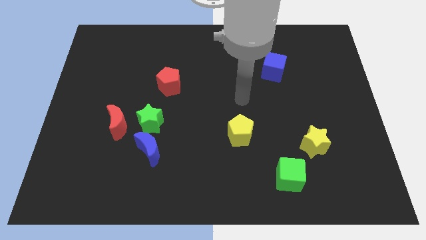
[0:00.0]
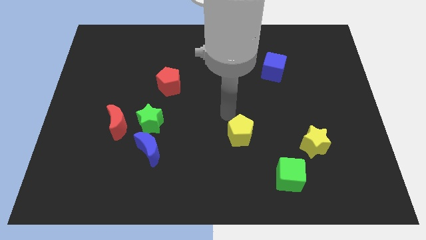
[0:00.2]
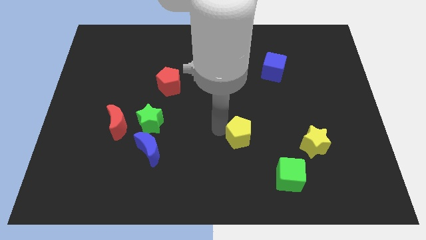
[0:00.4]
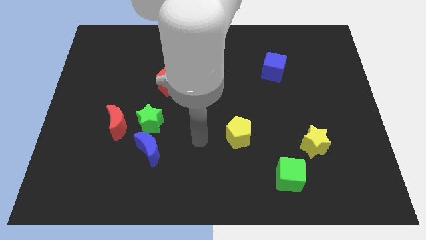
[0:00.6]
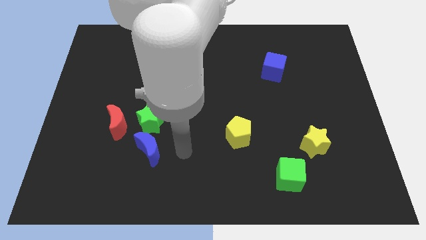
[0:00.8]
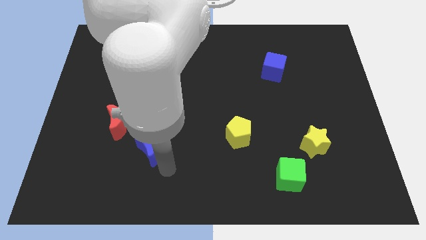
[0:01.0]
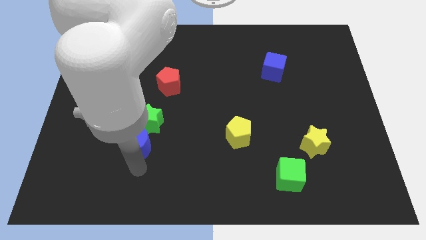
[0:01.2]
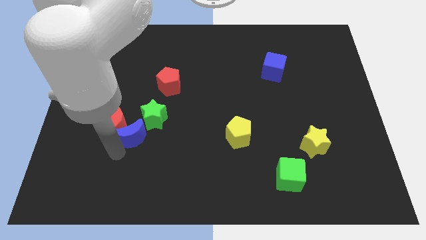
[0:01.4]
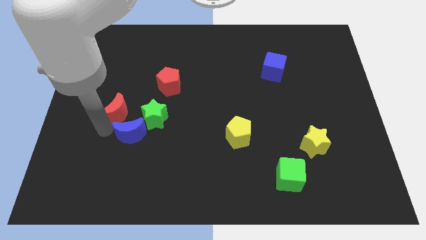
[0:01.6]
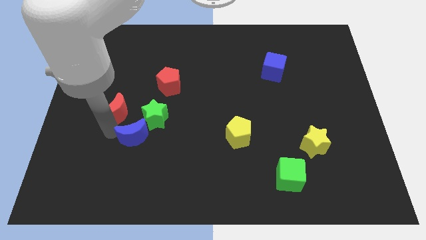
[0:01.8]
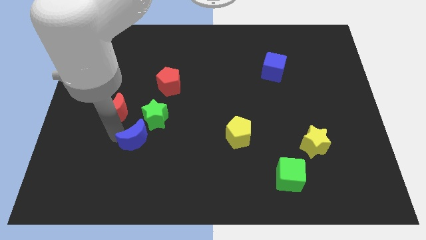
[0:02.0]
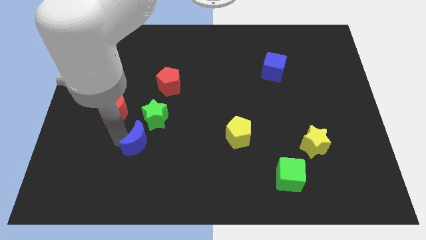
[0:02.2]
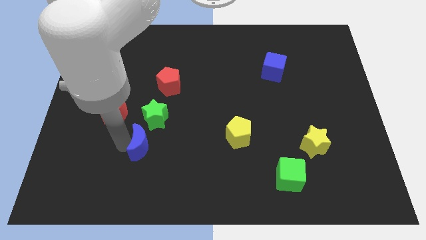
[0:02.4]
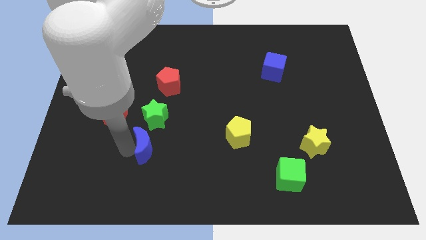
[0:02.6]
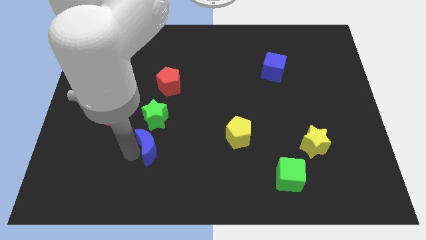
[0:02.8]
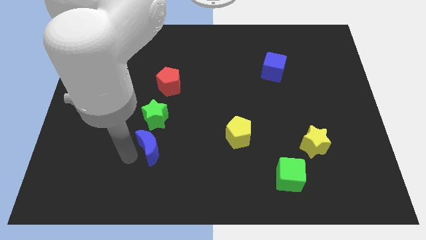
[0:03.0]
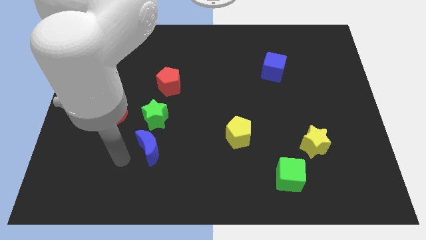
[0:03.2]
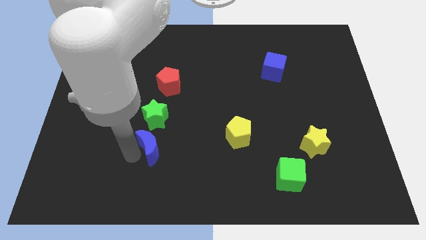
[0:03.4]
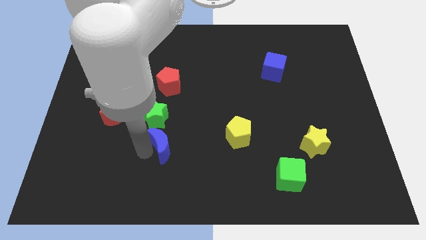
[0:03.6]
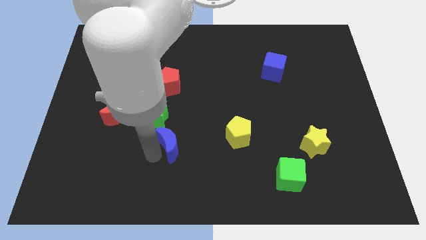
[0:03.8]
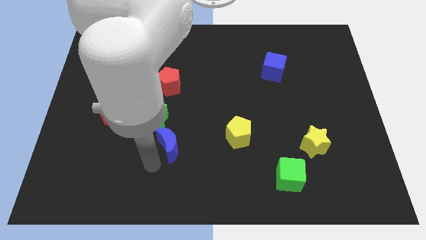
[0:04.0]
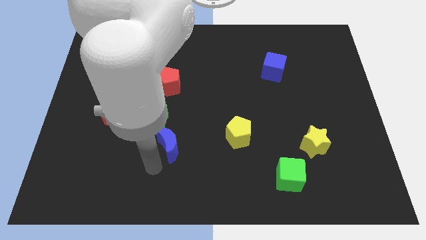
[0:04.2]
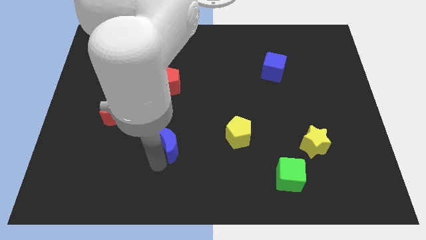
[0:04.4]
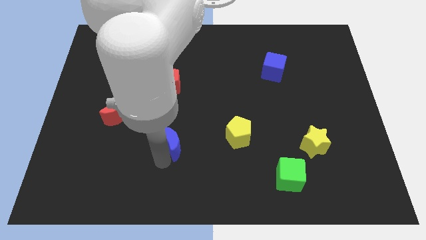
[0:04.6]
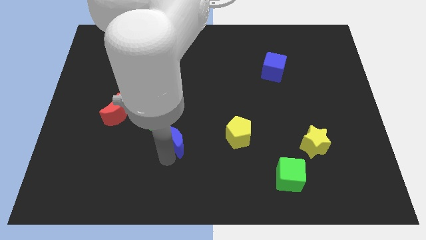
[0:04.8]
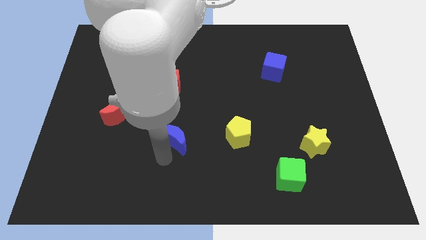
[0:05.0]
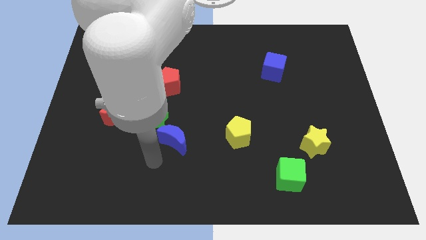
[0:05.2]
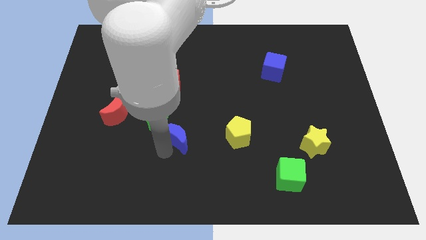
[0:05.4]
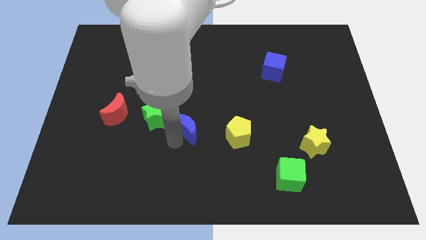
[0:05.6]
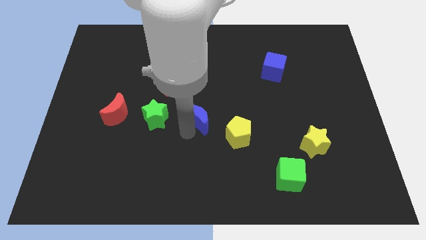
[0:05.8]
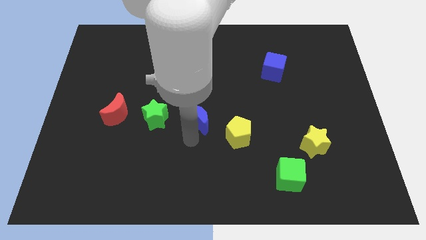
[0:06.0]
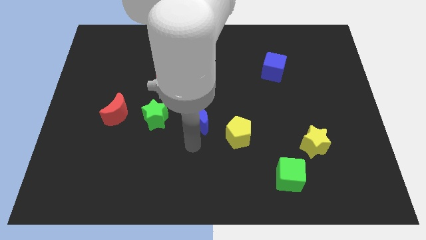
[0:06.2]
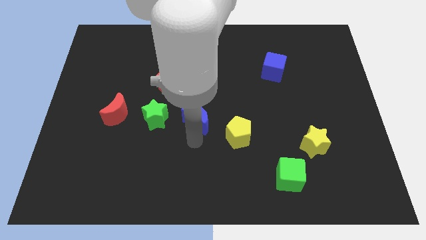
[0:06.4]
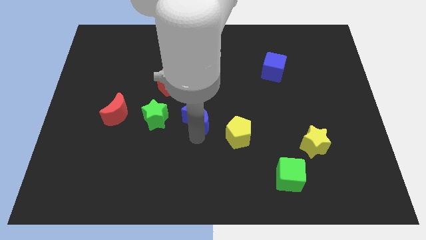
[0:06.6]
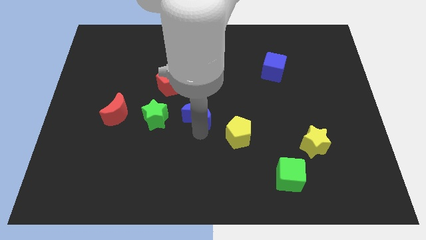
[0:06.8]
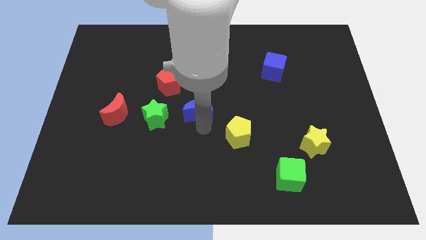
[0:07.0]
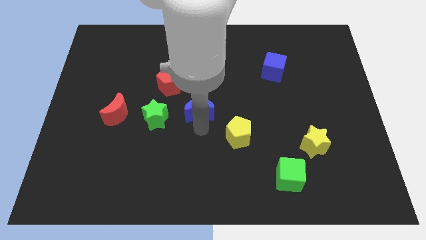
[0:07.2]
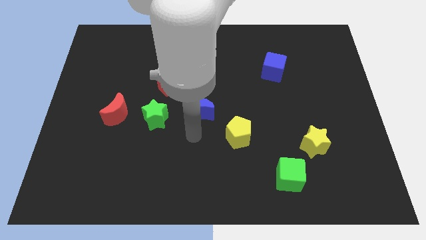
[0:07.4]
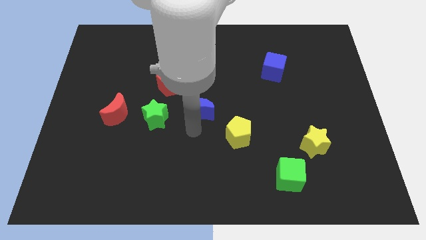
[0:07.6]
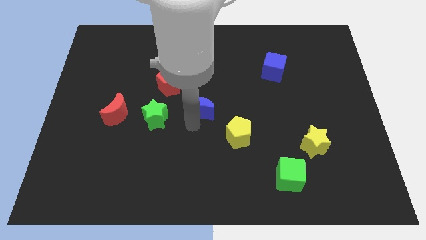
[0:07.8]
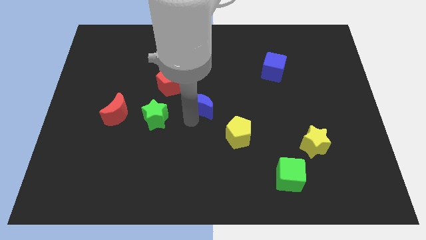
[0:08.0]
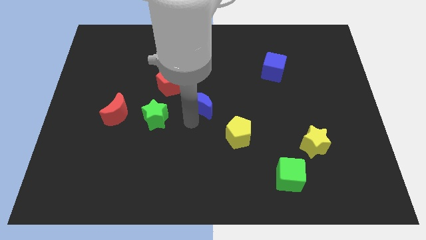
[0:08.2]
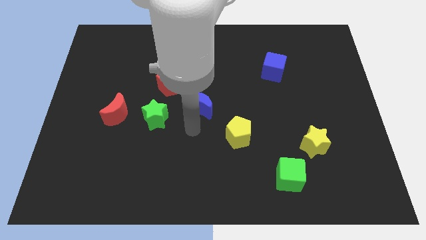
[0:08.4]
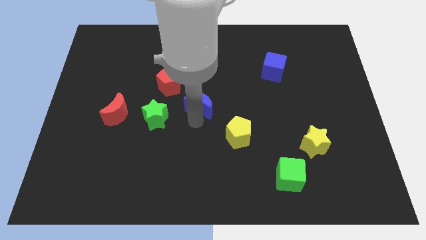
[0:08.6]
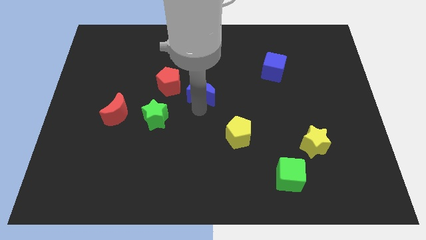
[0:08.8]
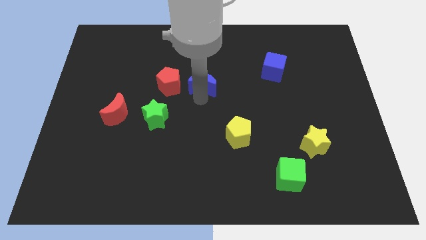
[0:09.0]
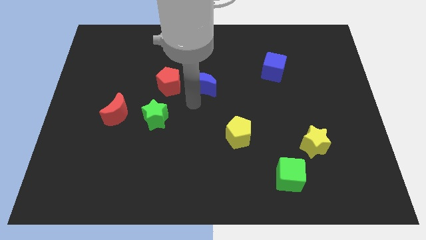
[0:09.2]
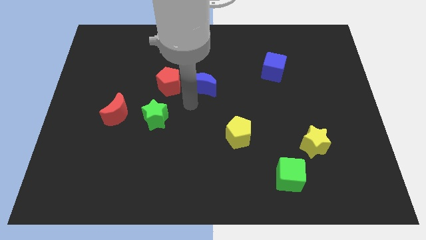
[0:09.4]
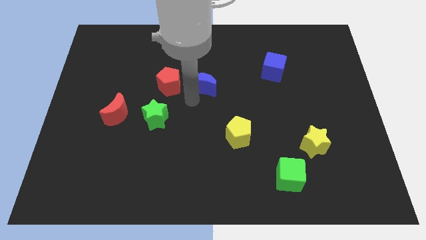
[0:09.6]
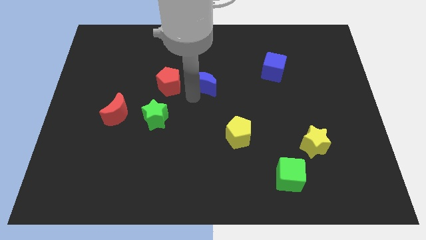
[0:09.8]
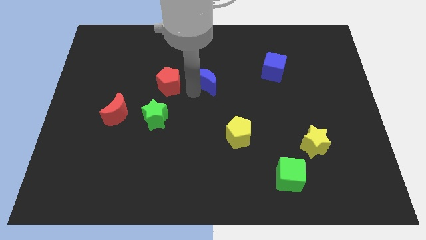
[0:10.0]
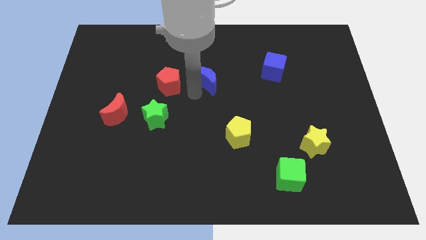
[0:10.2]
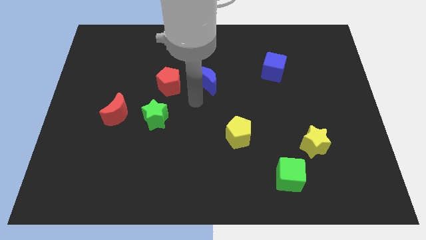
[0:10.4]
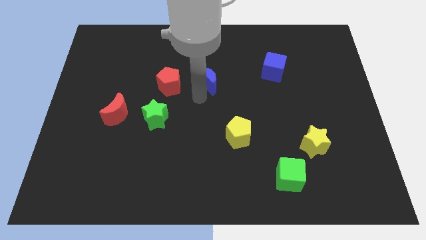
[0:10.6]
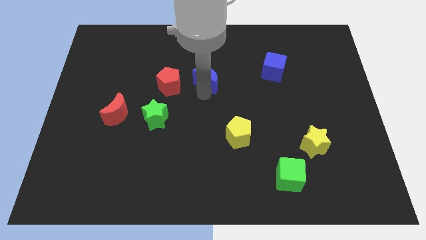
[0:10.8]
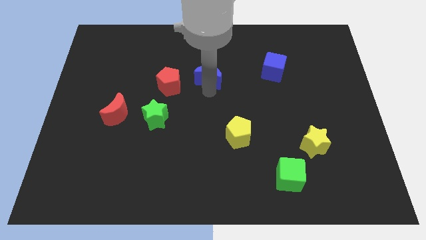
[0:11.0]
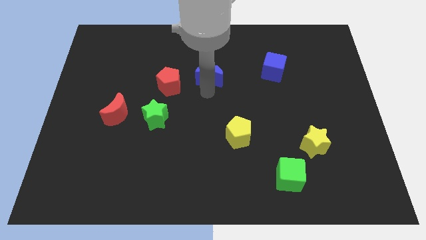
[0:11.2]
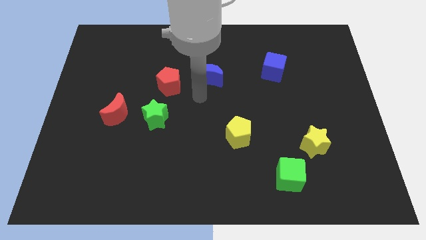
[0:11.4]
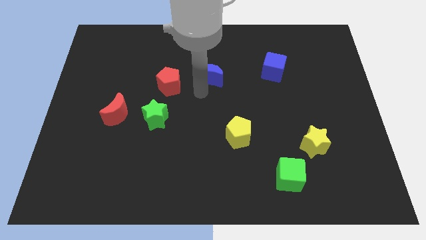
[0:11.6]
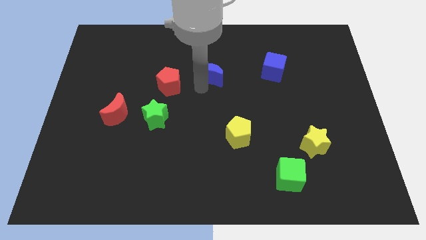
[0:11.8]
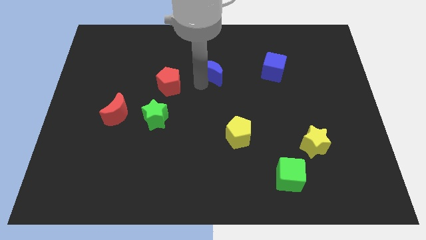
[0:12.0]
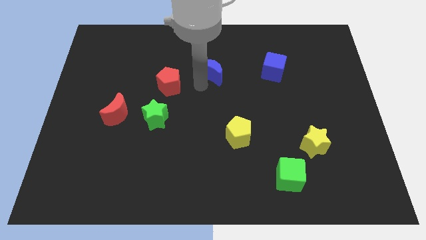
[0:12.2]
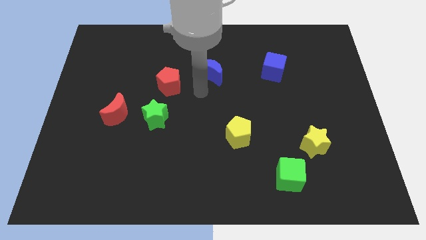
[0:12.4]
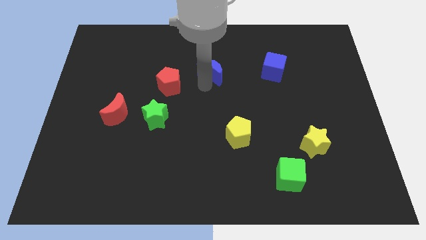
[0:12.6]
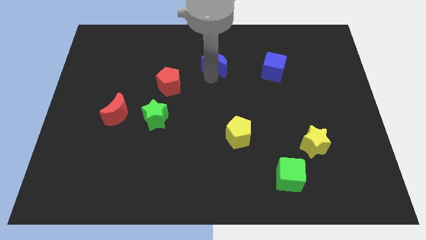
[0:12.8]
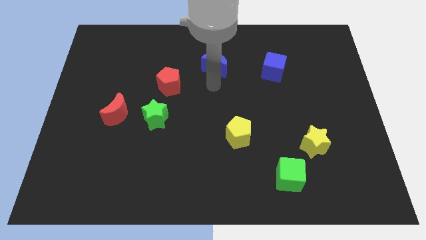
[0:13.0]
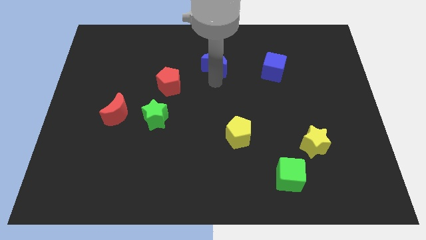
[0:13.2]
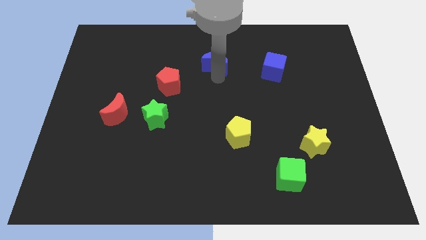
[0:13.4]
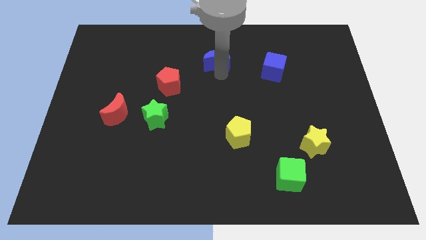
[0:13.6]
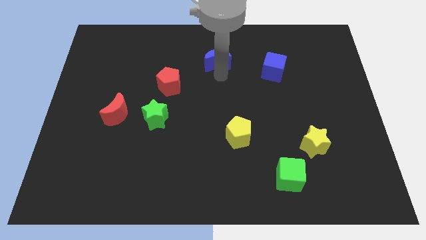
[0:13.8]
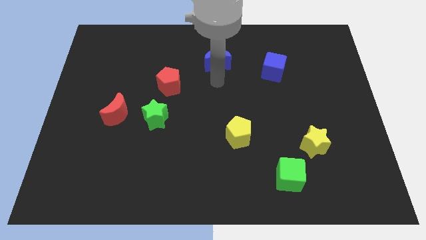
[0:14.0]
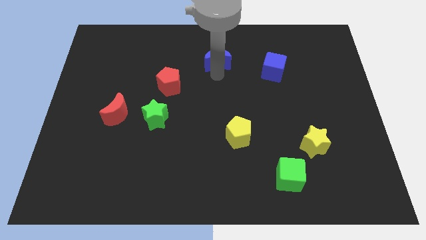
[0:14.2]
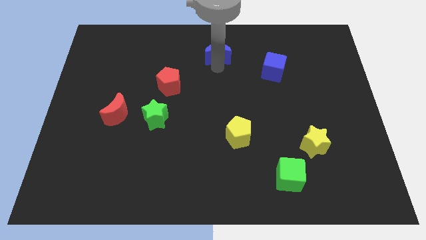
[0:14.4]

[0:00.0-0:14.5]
move the blue moon to the top
